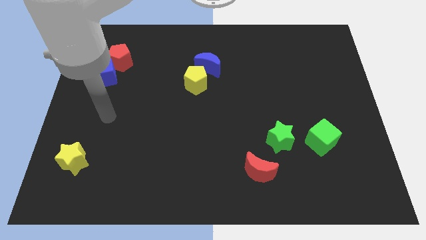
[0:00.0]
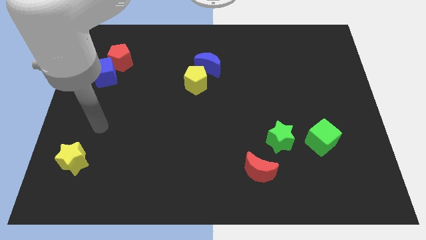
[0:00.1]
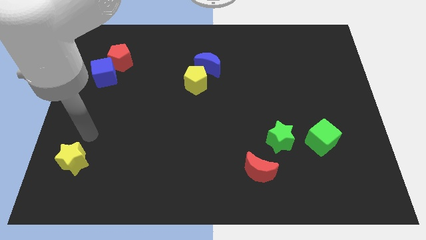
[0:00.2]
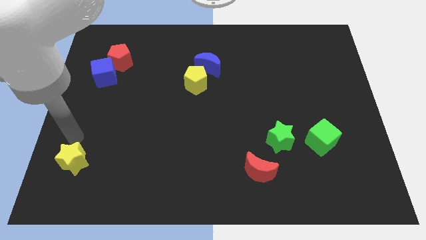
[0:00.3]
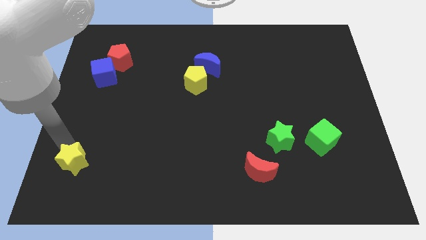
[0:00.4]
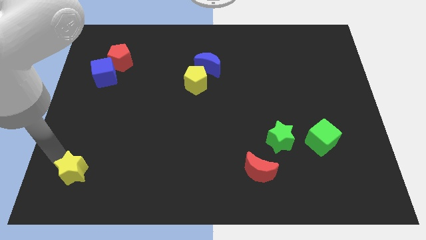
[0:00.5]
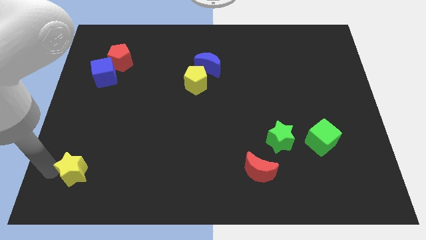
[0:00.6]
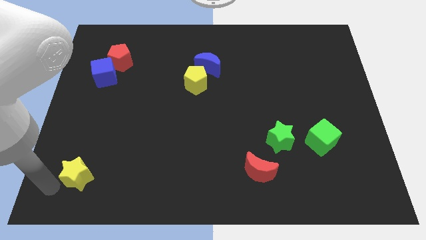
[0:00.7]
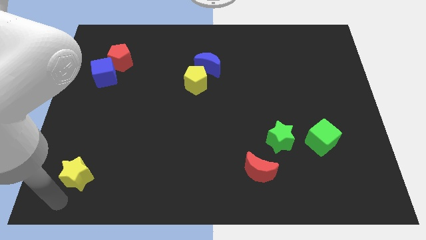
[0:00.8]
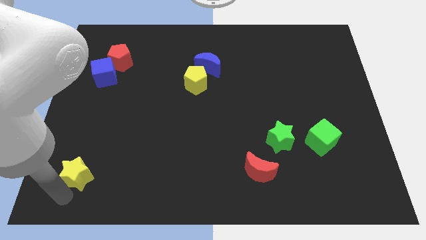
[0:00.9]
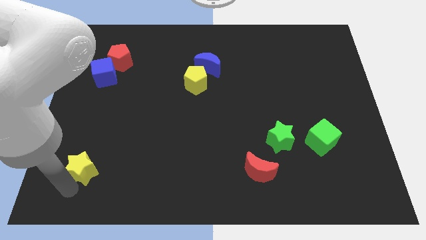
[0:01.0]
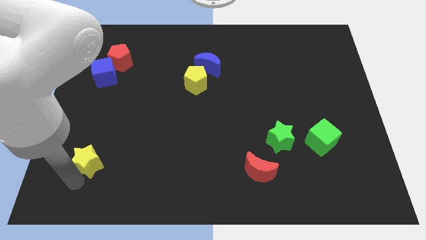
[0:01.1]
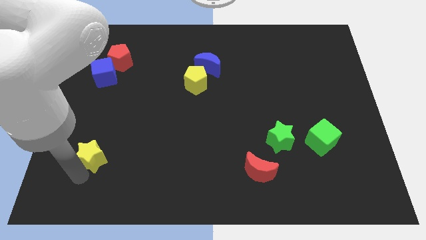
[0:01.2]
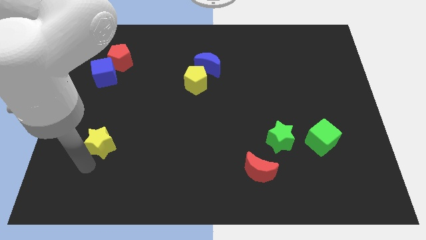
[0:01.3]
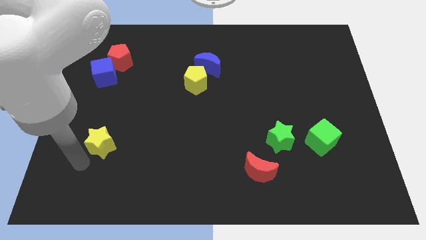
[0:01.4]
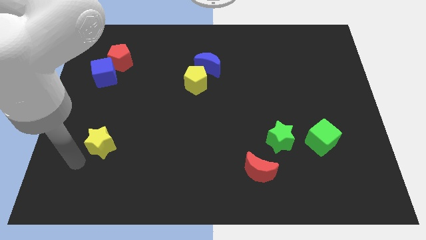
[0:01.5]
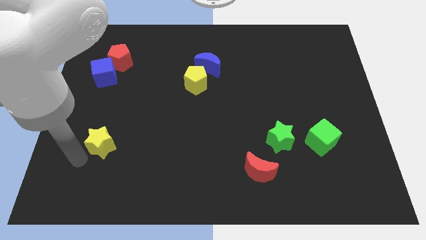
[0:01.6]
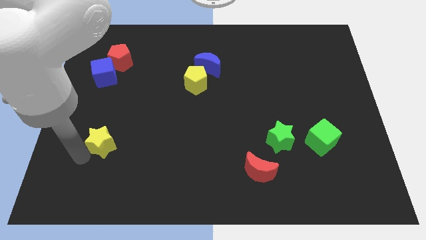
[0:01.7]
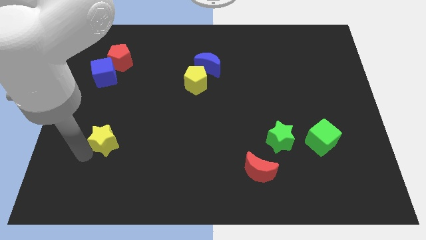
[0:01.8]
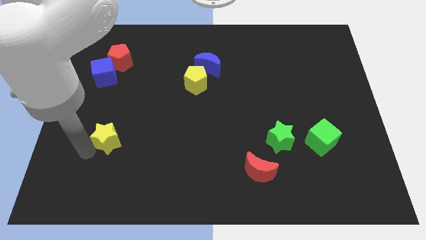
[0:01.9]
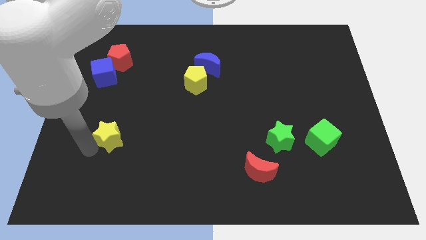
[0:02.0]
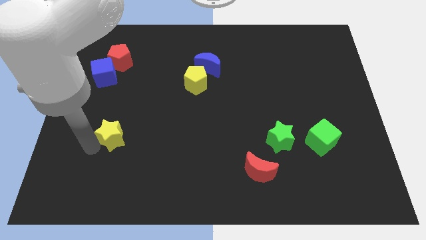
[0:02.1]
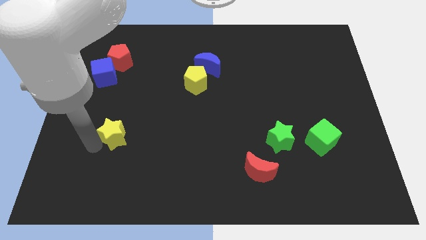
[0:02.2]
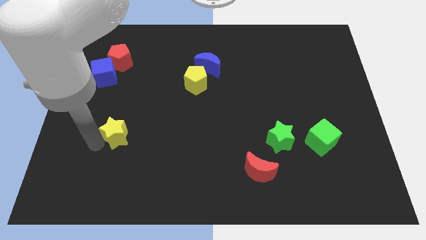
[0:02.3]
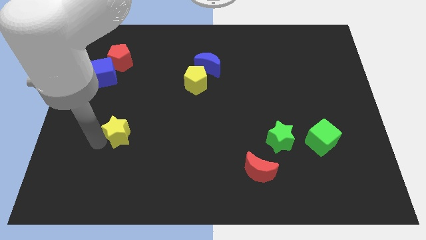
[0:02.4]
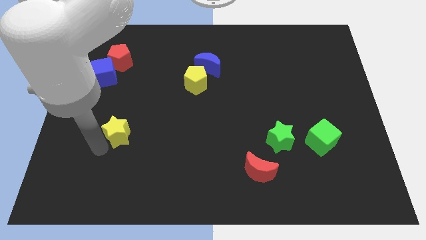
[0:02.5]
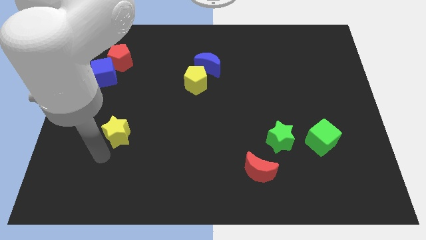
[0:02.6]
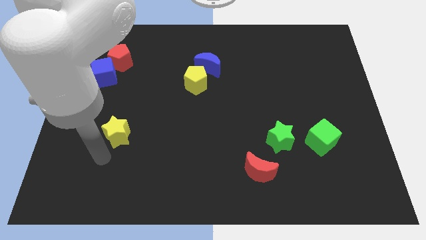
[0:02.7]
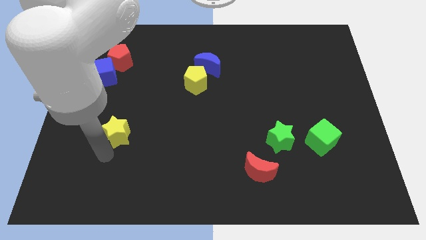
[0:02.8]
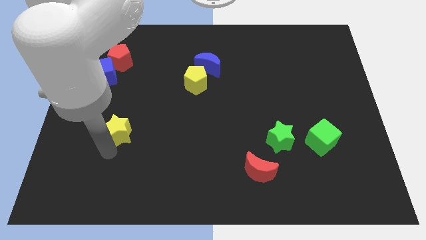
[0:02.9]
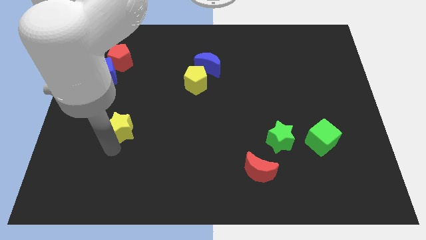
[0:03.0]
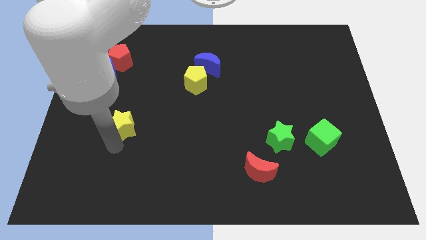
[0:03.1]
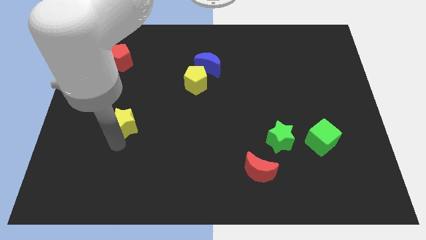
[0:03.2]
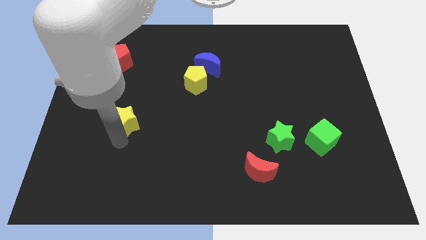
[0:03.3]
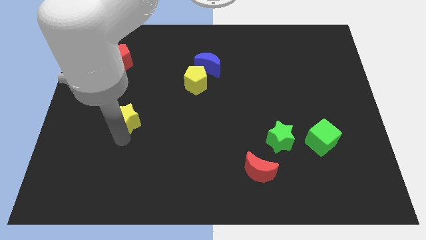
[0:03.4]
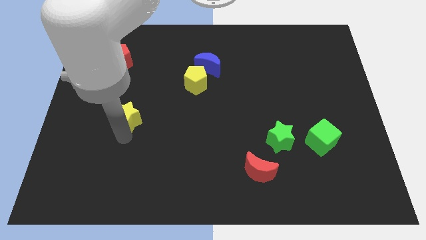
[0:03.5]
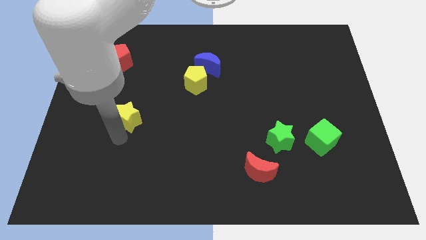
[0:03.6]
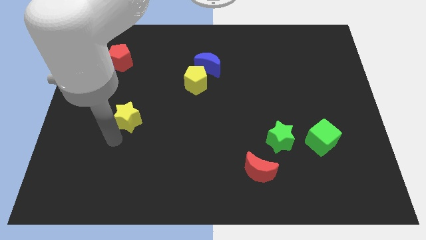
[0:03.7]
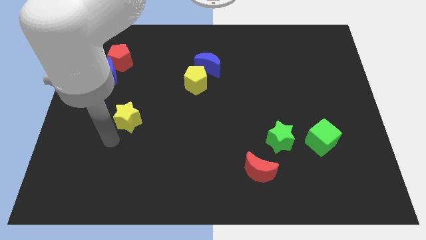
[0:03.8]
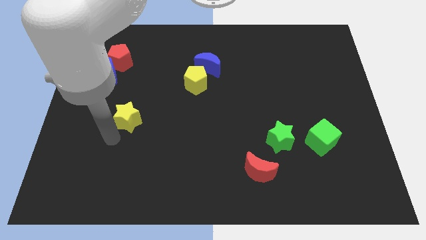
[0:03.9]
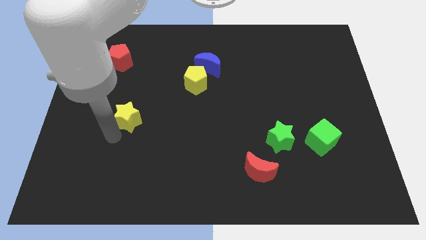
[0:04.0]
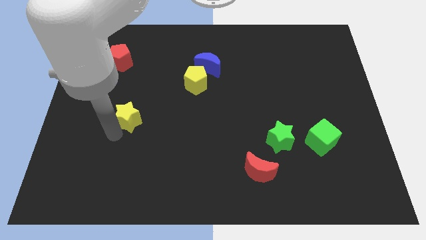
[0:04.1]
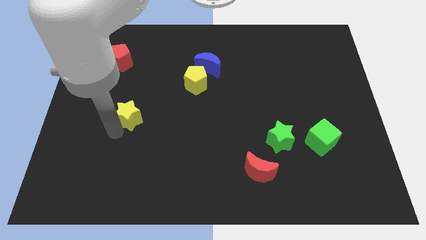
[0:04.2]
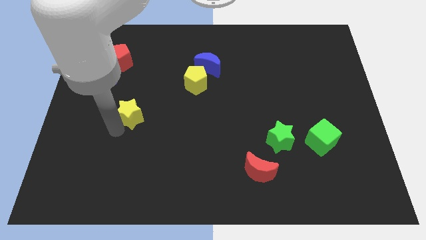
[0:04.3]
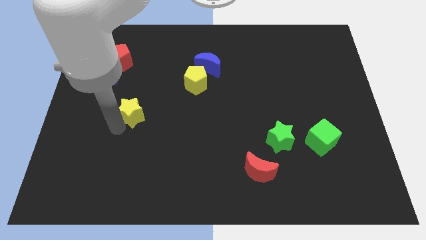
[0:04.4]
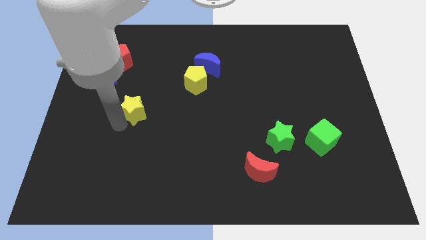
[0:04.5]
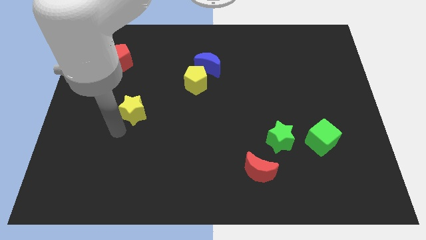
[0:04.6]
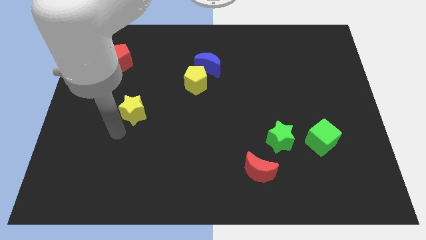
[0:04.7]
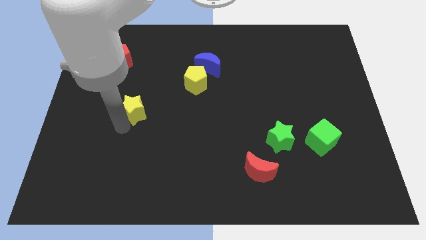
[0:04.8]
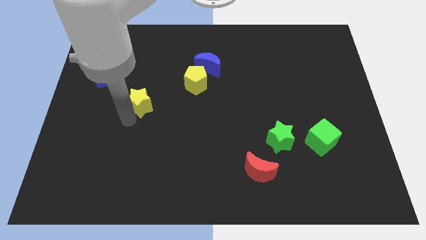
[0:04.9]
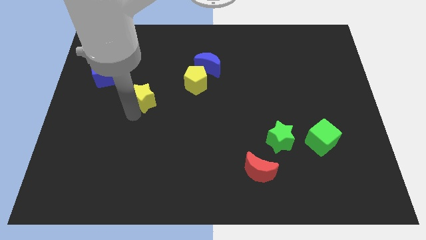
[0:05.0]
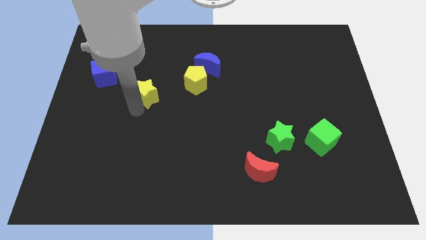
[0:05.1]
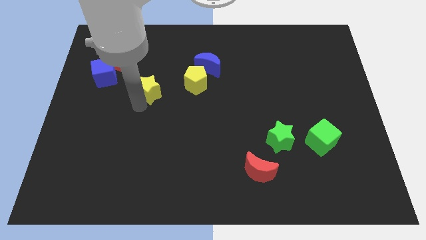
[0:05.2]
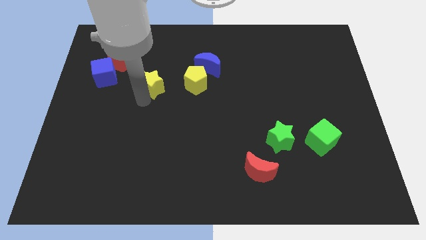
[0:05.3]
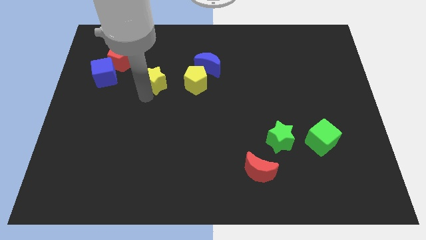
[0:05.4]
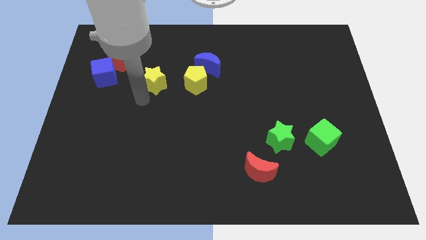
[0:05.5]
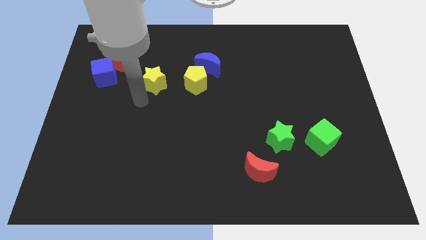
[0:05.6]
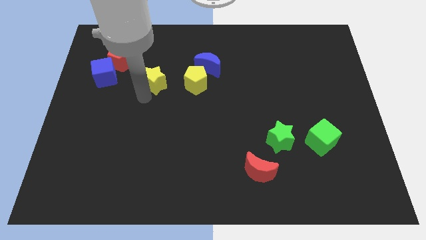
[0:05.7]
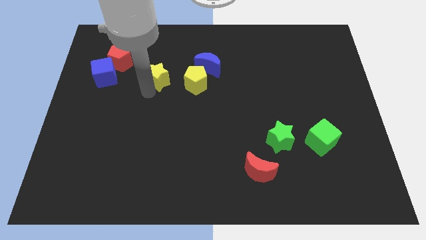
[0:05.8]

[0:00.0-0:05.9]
put the yellow star just left of the blue moon
